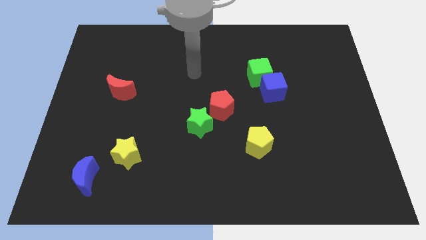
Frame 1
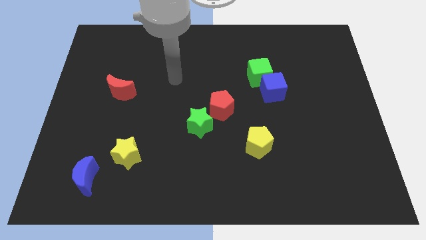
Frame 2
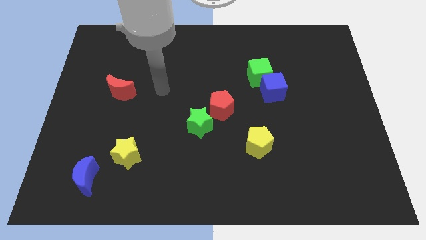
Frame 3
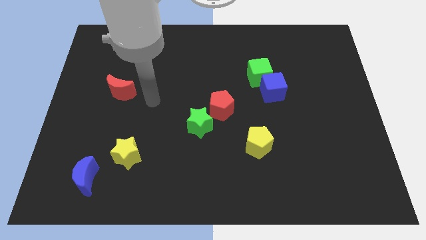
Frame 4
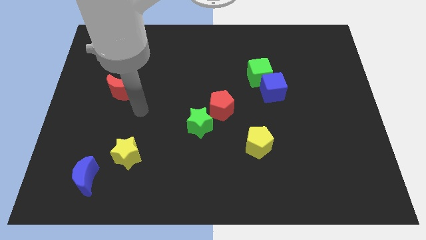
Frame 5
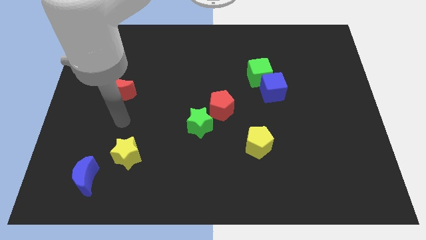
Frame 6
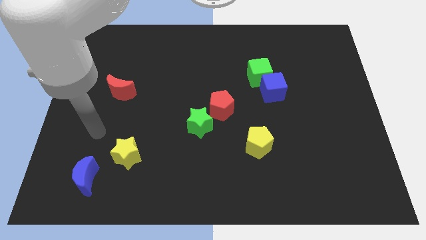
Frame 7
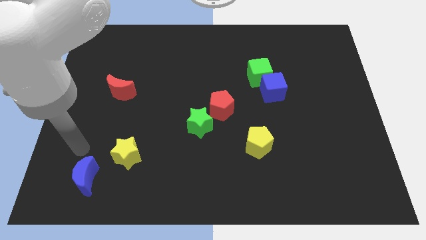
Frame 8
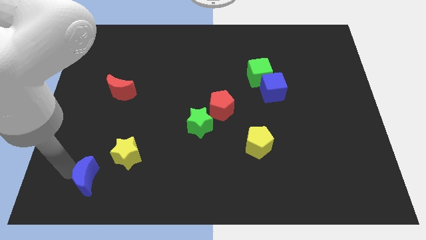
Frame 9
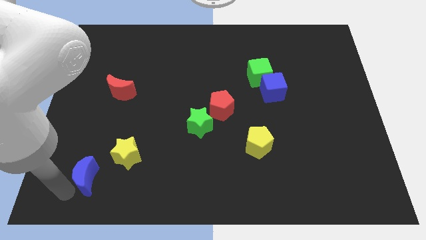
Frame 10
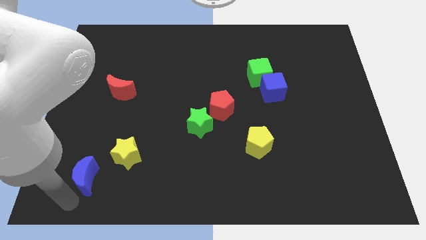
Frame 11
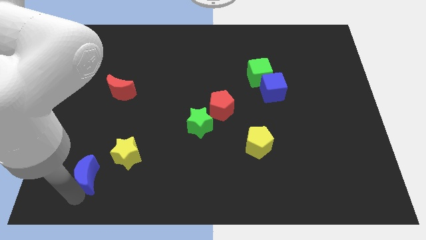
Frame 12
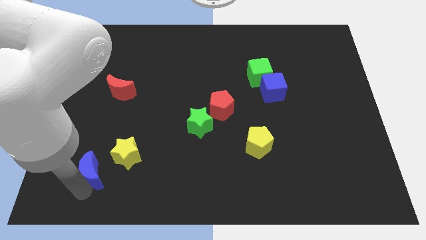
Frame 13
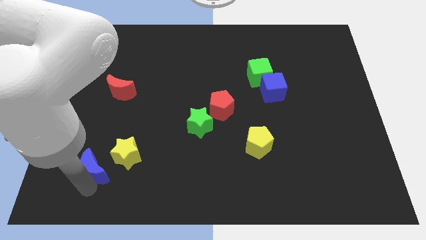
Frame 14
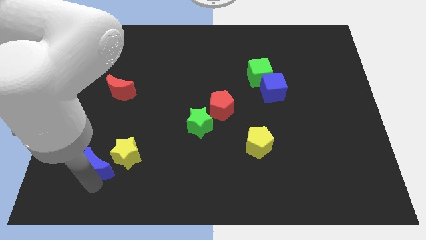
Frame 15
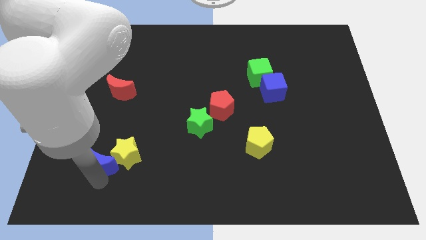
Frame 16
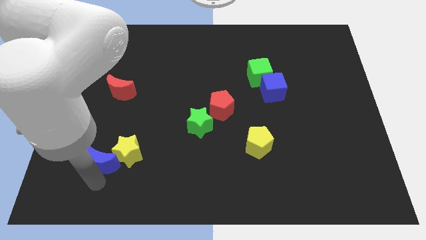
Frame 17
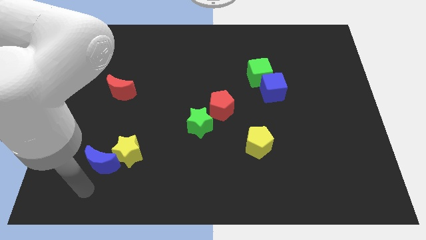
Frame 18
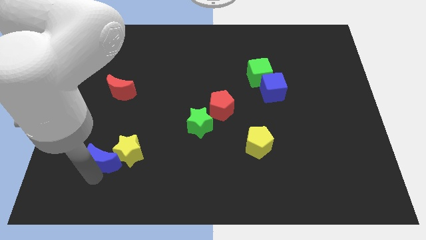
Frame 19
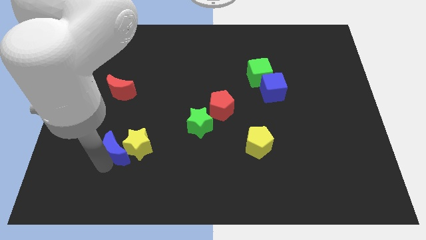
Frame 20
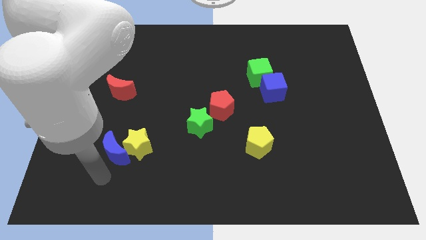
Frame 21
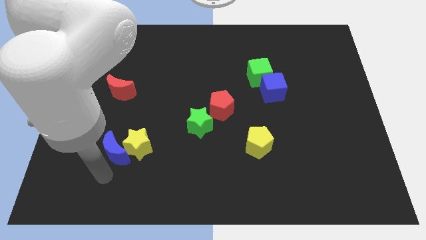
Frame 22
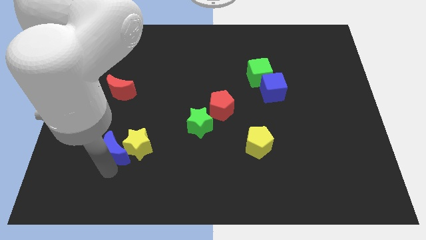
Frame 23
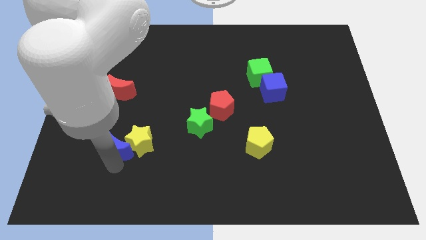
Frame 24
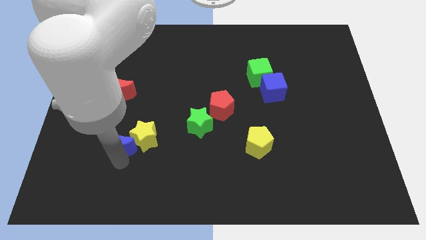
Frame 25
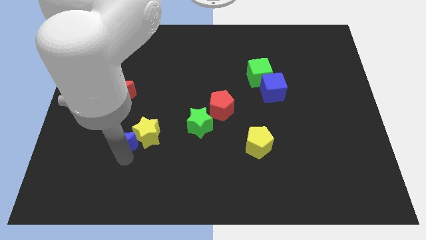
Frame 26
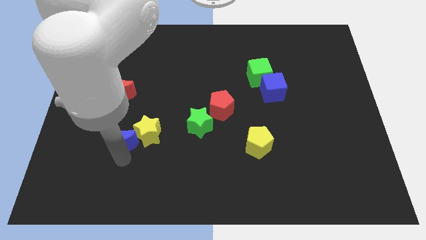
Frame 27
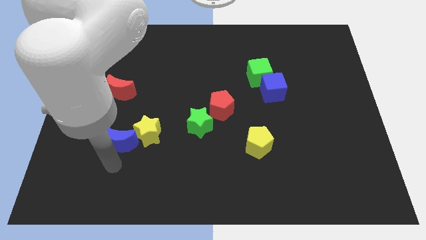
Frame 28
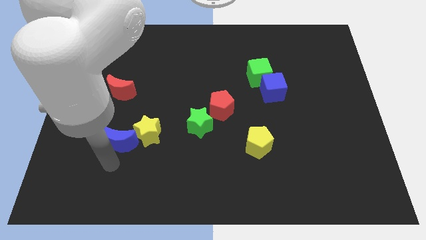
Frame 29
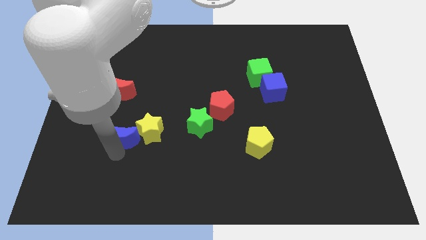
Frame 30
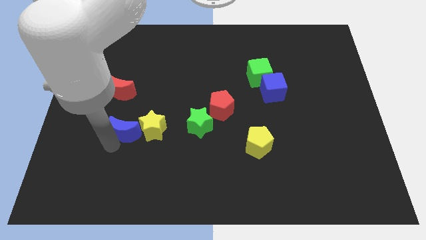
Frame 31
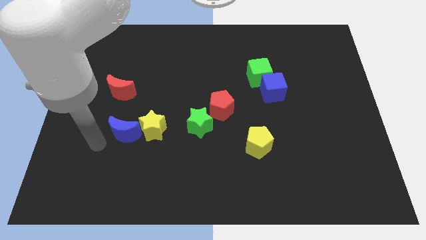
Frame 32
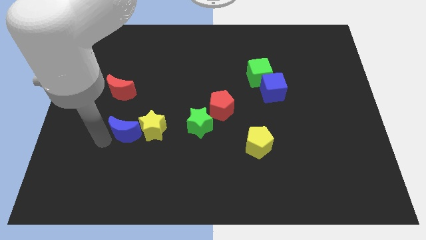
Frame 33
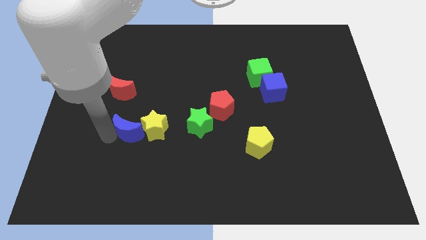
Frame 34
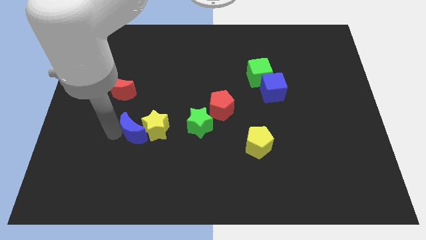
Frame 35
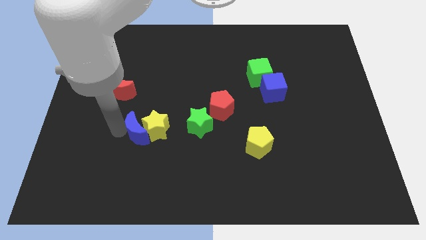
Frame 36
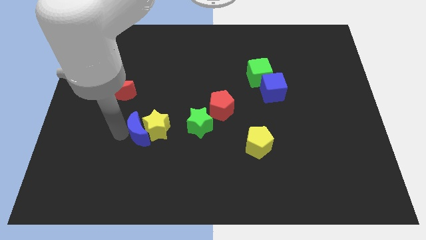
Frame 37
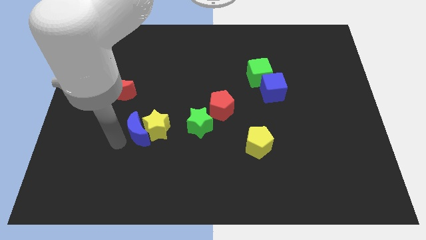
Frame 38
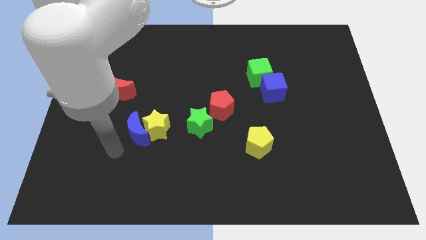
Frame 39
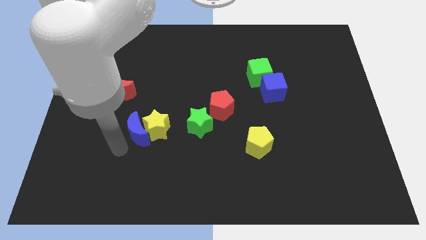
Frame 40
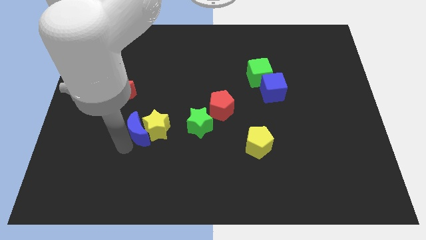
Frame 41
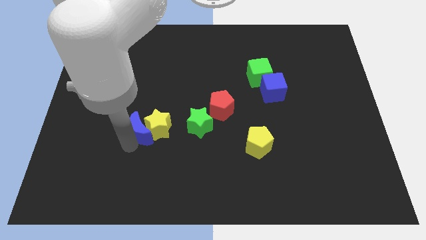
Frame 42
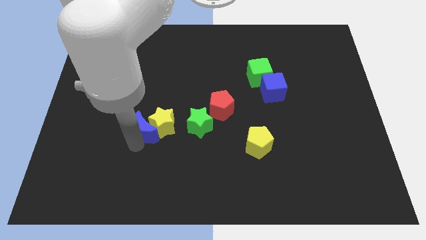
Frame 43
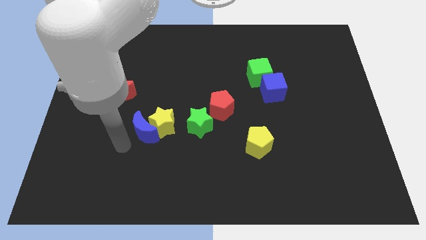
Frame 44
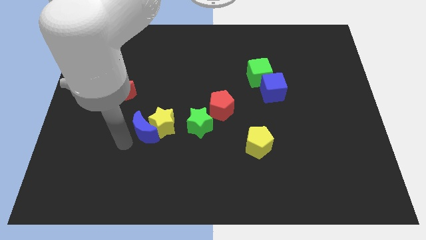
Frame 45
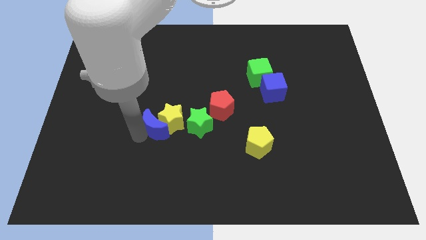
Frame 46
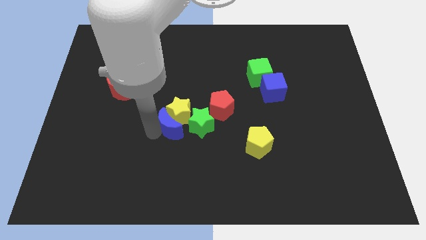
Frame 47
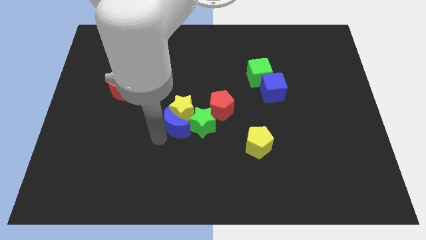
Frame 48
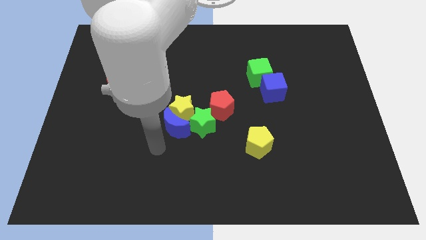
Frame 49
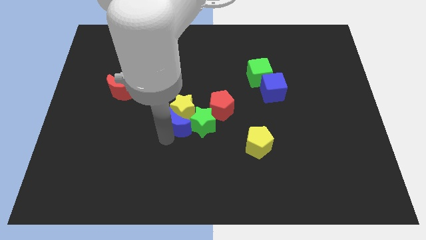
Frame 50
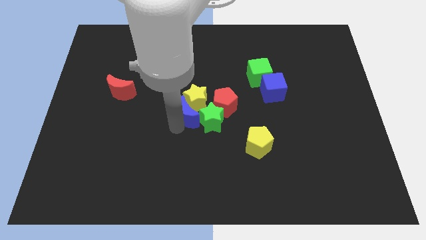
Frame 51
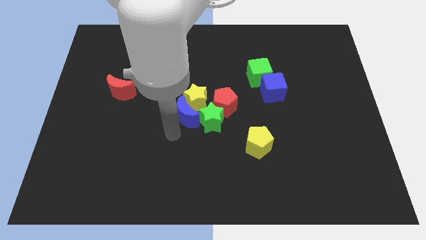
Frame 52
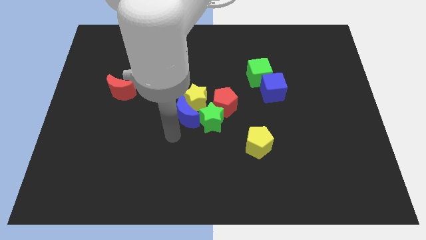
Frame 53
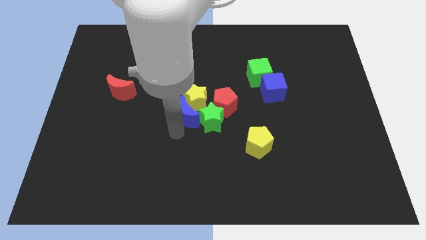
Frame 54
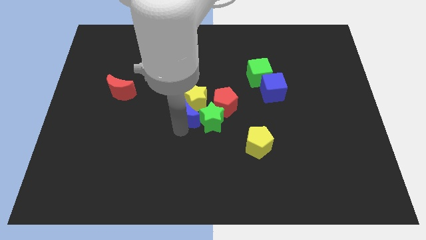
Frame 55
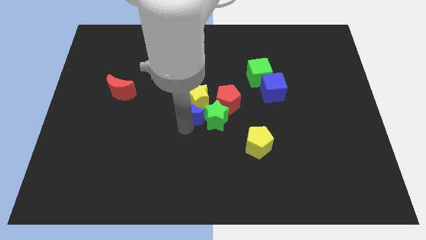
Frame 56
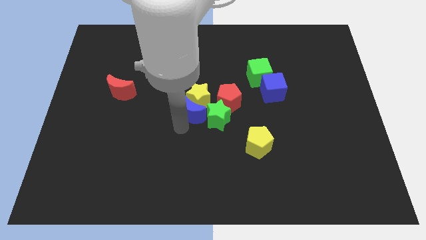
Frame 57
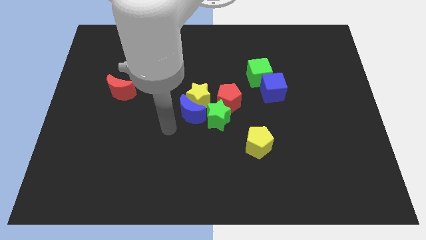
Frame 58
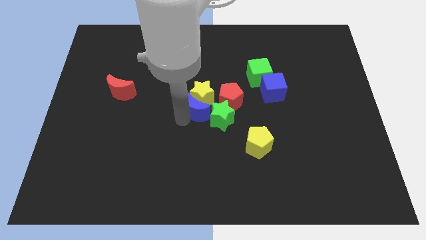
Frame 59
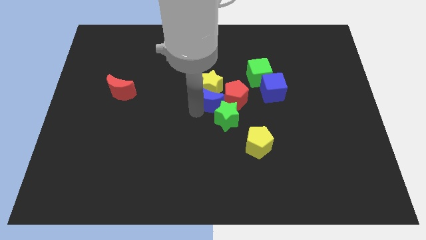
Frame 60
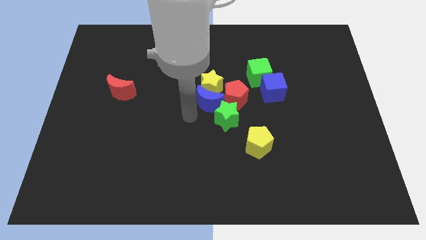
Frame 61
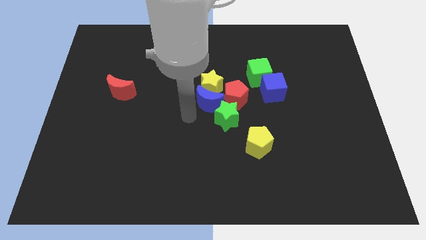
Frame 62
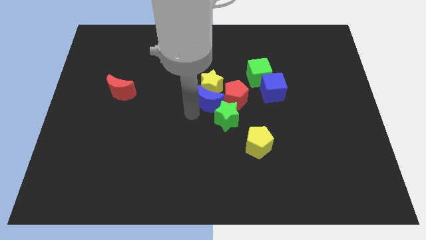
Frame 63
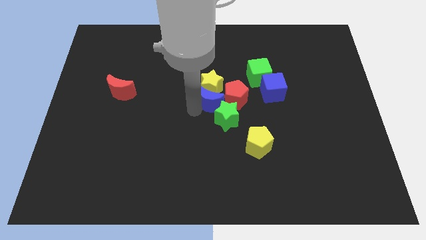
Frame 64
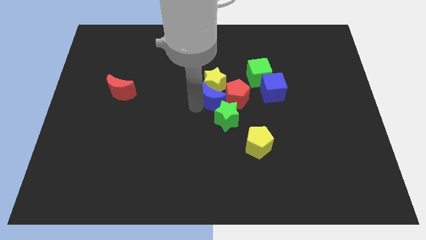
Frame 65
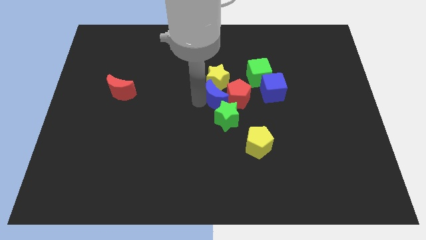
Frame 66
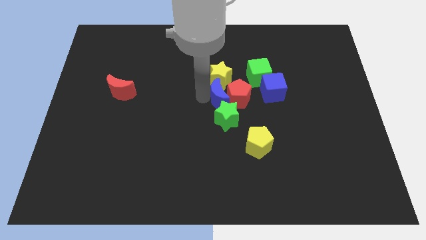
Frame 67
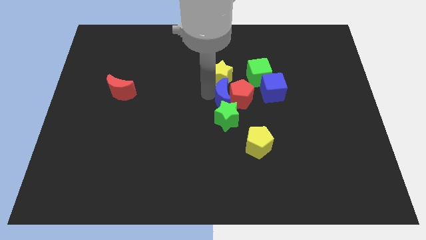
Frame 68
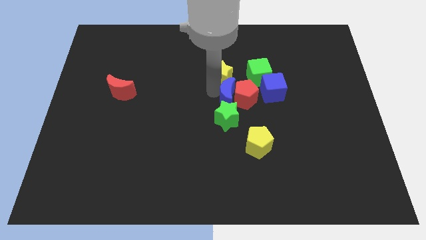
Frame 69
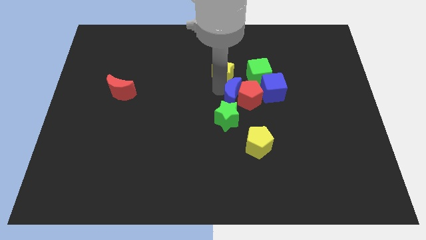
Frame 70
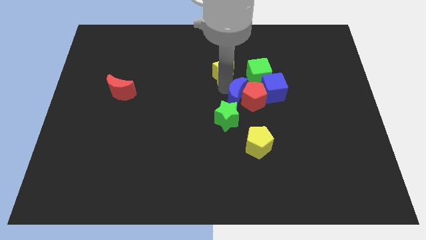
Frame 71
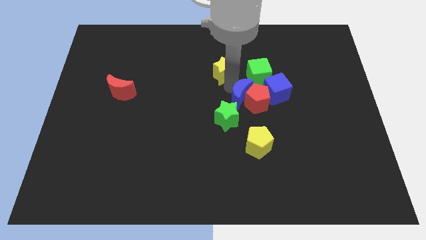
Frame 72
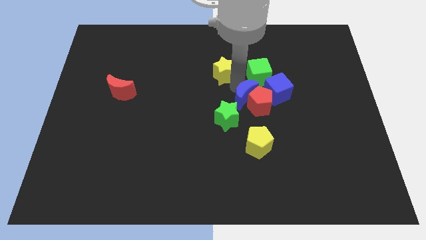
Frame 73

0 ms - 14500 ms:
put the blue moon to the bottom left side of the blue cube
